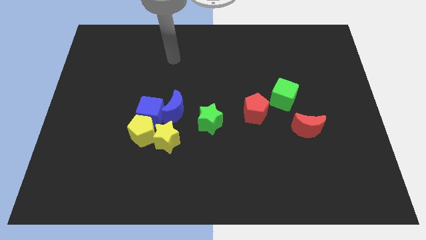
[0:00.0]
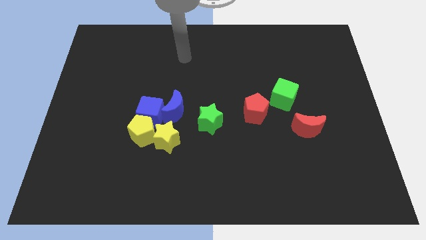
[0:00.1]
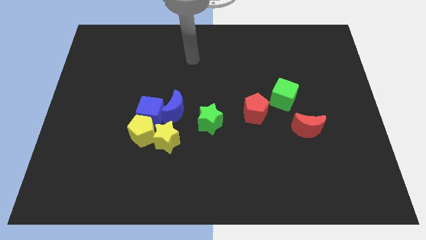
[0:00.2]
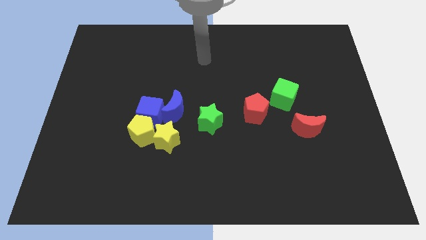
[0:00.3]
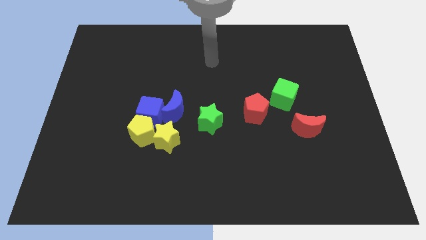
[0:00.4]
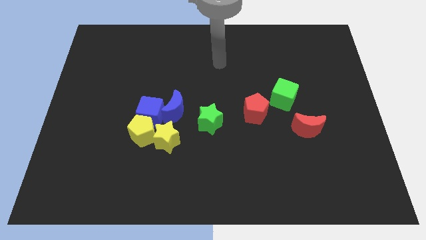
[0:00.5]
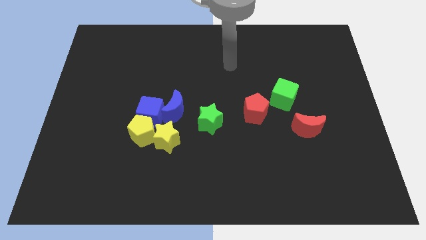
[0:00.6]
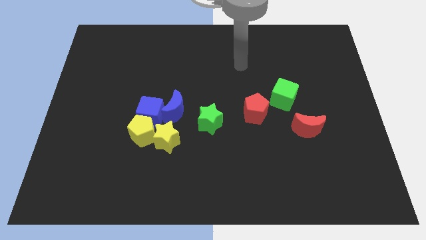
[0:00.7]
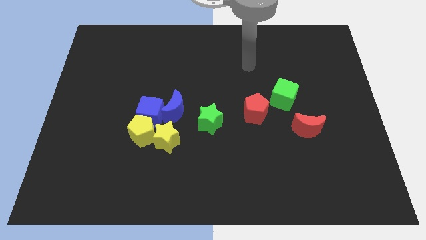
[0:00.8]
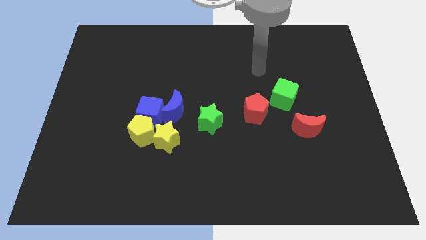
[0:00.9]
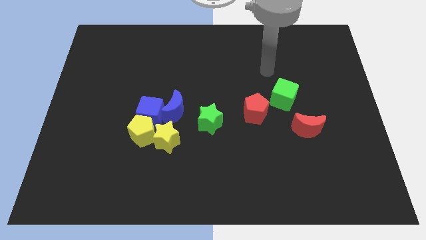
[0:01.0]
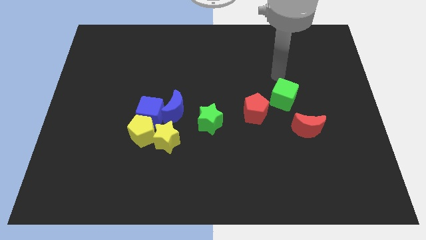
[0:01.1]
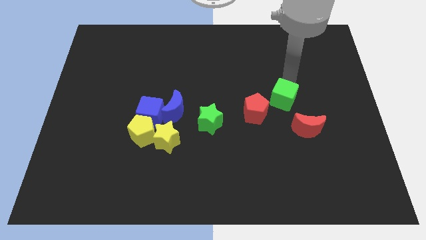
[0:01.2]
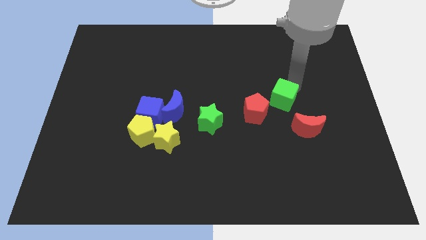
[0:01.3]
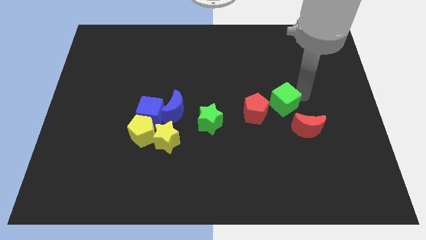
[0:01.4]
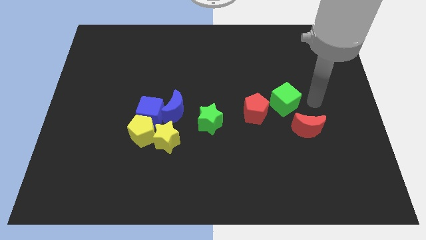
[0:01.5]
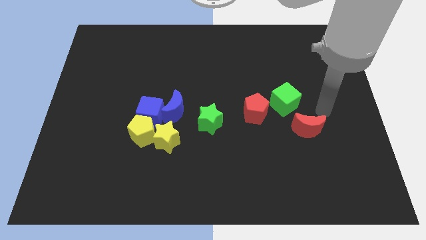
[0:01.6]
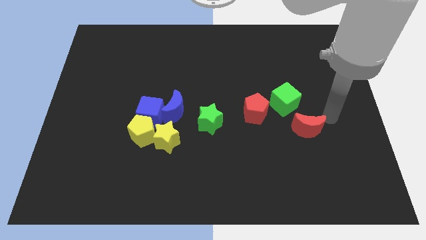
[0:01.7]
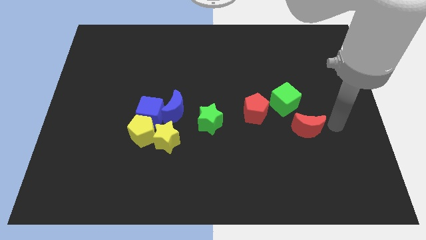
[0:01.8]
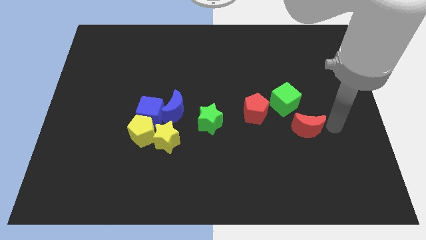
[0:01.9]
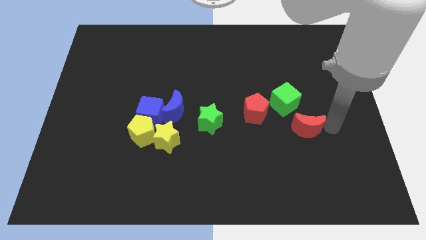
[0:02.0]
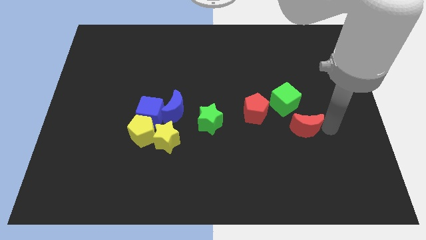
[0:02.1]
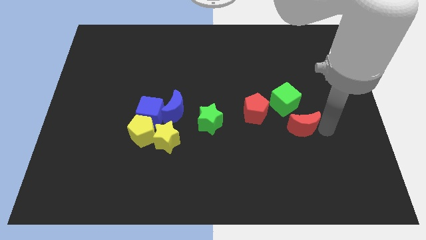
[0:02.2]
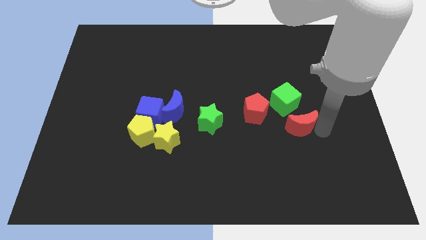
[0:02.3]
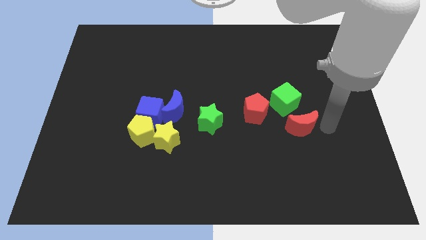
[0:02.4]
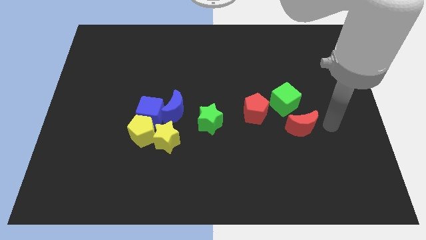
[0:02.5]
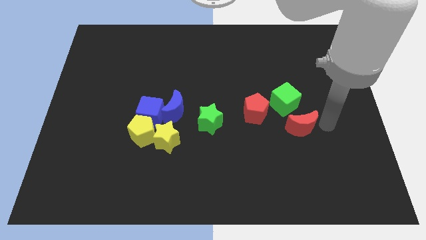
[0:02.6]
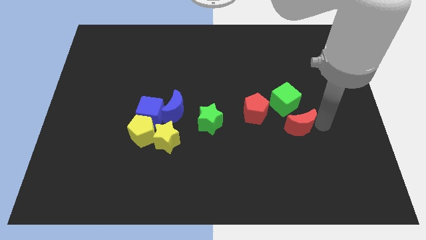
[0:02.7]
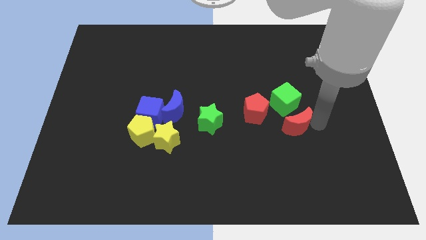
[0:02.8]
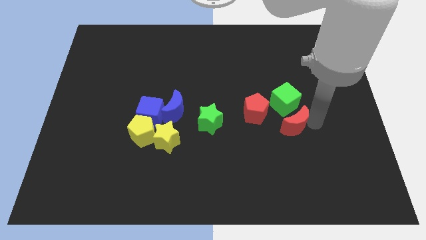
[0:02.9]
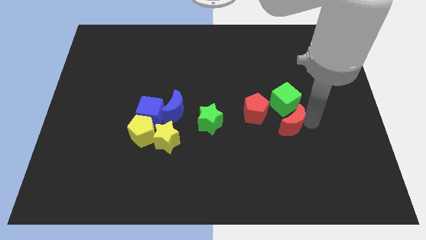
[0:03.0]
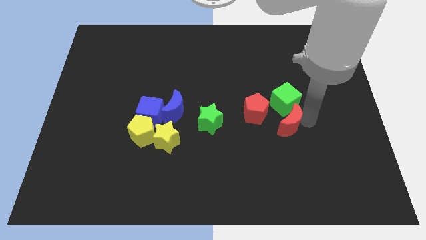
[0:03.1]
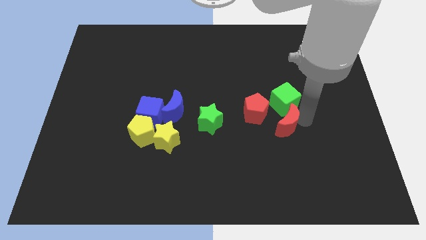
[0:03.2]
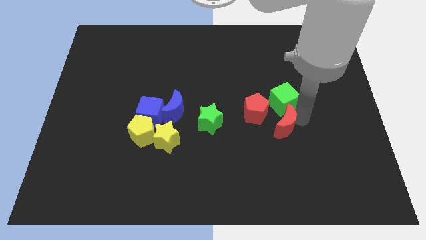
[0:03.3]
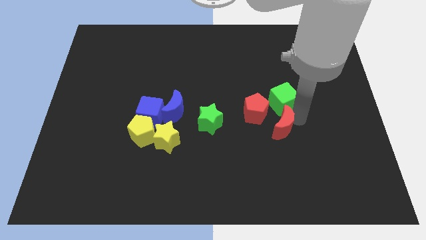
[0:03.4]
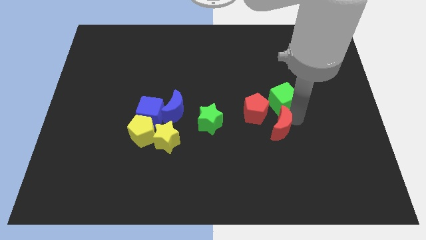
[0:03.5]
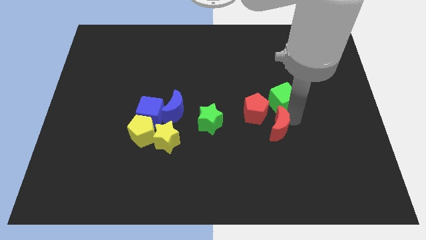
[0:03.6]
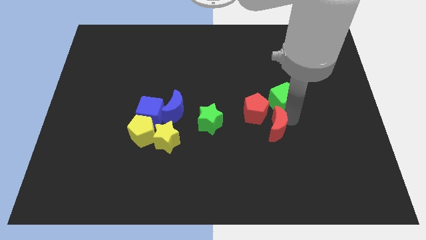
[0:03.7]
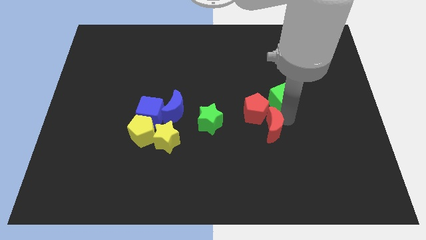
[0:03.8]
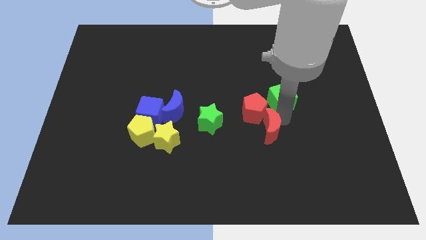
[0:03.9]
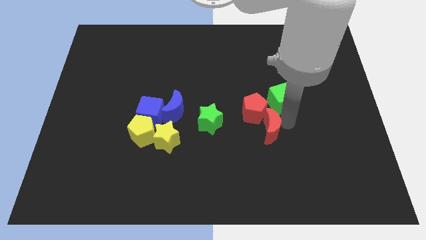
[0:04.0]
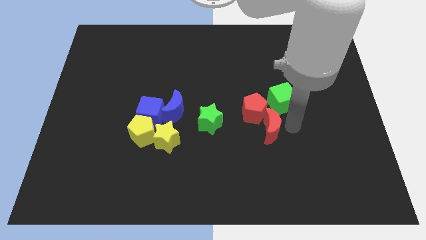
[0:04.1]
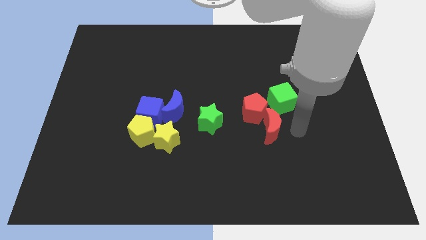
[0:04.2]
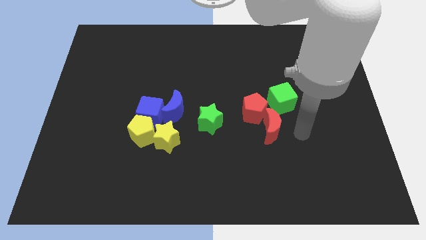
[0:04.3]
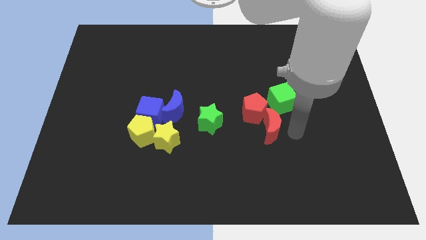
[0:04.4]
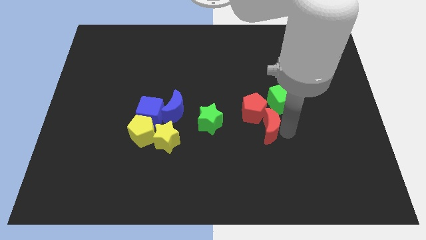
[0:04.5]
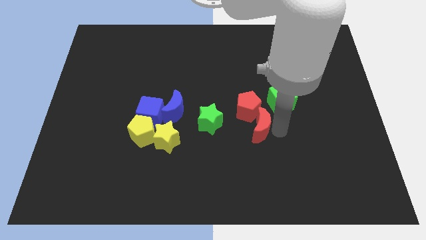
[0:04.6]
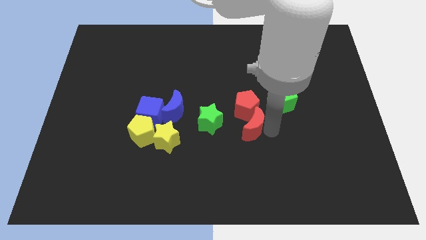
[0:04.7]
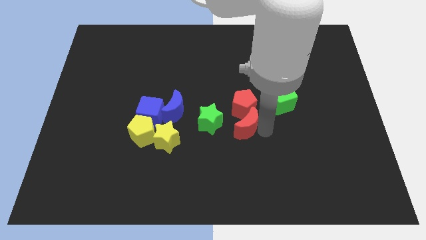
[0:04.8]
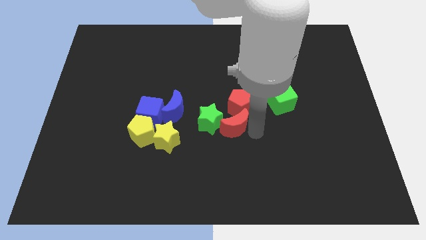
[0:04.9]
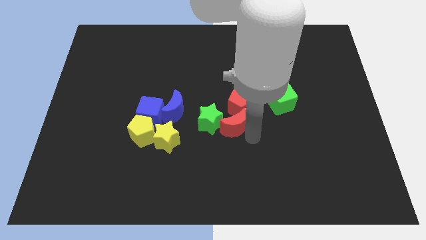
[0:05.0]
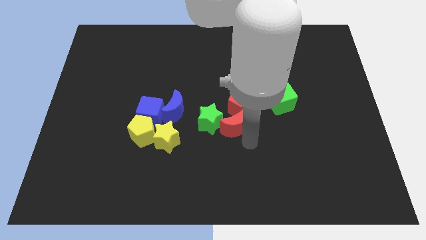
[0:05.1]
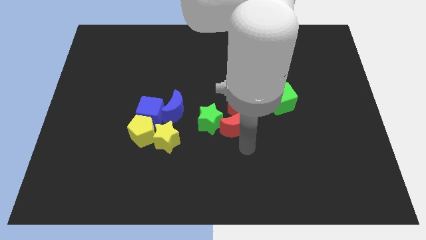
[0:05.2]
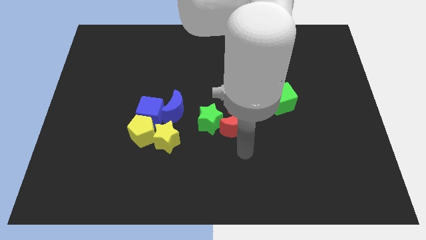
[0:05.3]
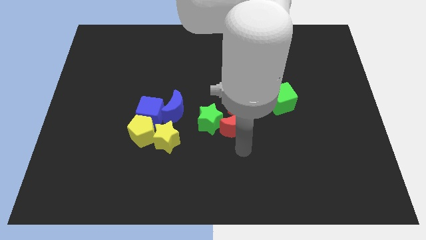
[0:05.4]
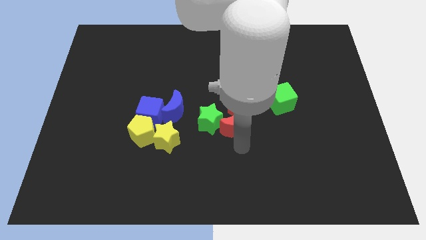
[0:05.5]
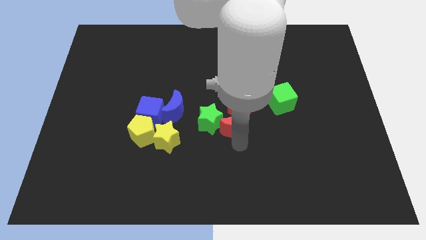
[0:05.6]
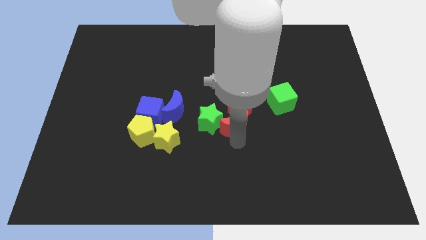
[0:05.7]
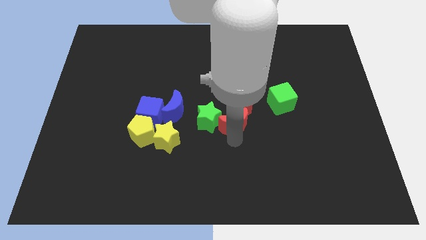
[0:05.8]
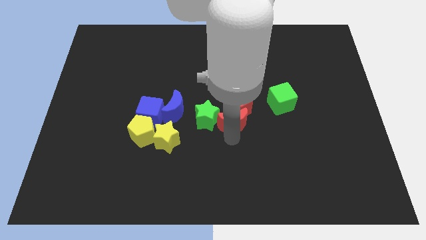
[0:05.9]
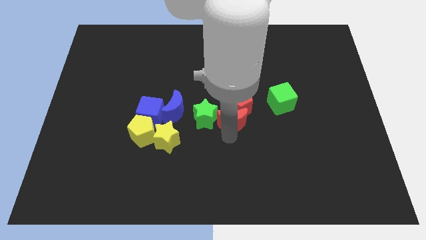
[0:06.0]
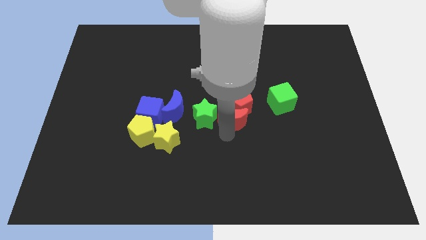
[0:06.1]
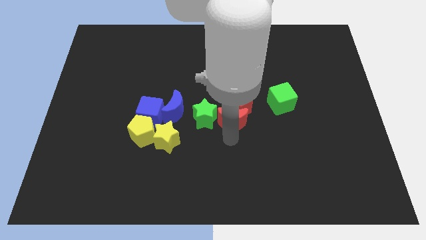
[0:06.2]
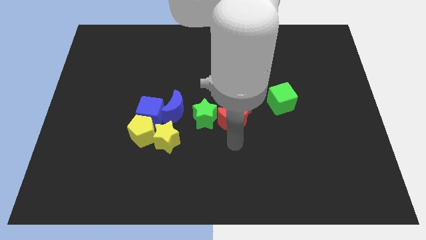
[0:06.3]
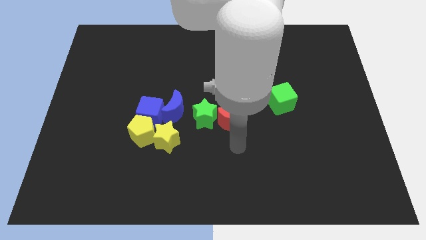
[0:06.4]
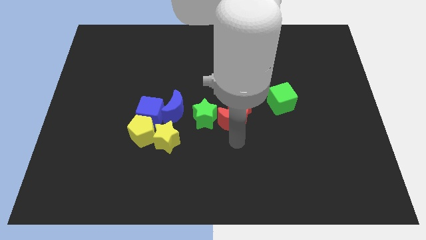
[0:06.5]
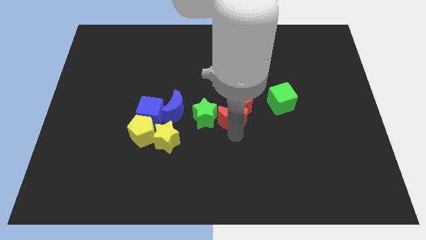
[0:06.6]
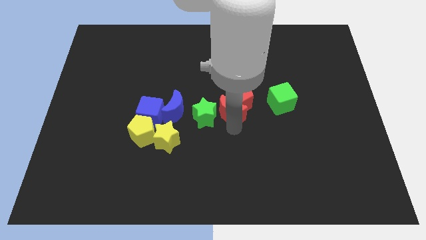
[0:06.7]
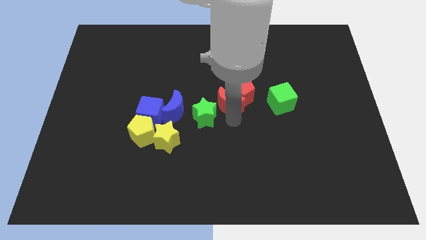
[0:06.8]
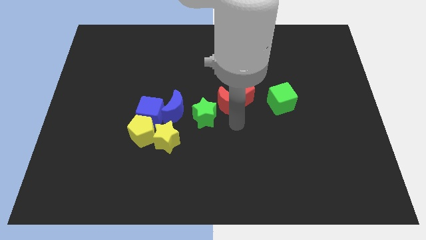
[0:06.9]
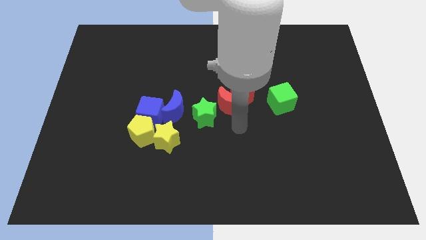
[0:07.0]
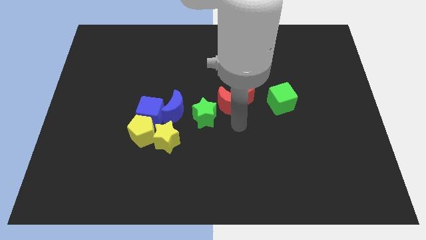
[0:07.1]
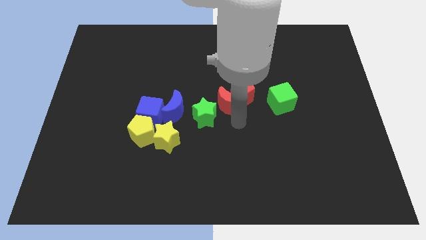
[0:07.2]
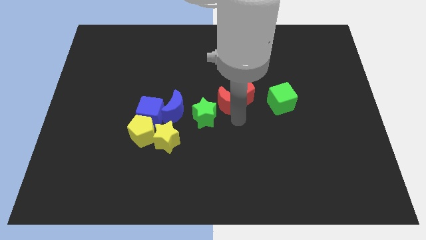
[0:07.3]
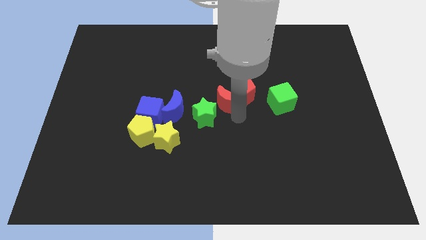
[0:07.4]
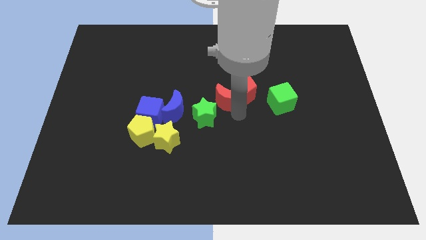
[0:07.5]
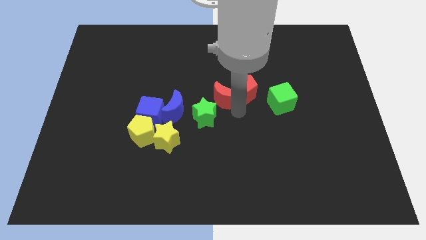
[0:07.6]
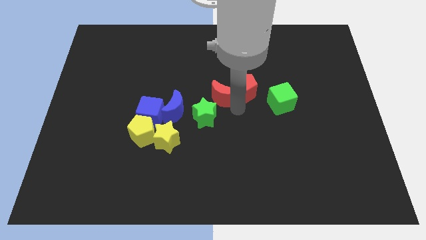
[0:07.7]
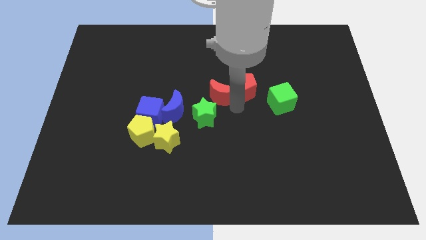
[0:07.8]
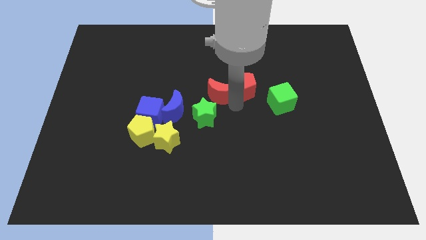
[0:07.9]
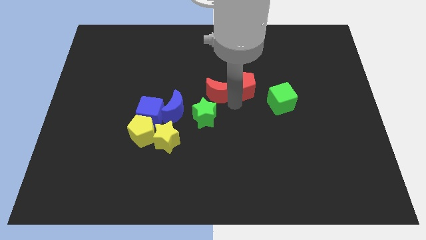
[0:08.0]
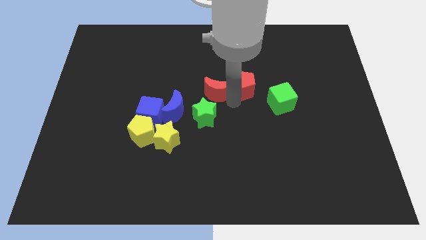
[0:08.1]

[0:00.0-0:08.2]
slide the red moon upwards and to the left
